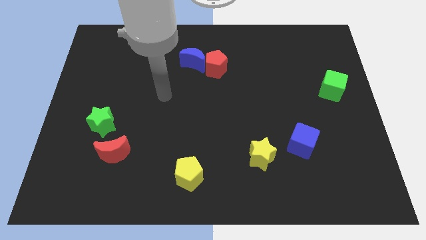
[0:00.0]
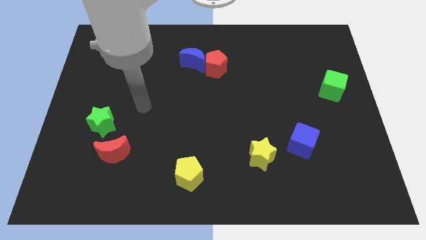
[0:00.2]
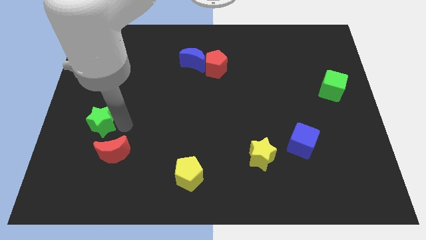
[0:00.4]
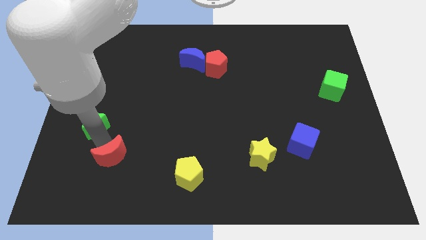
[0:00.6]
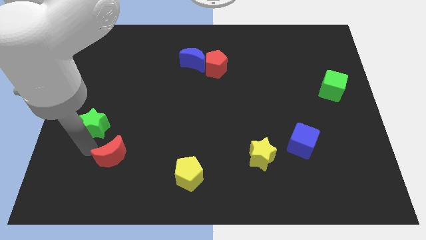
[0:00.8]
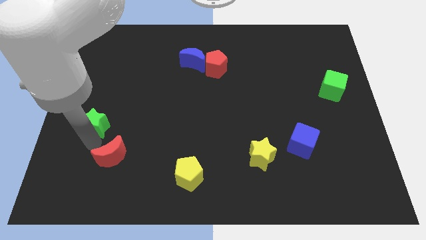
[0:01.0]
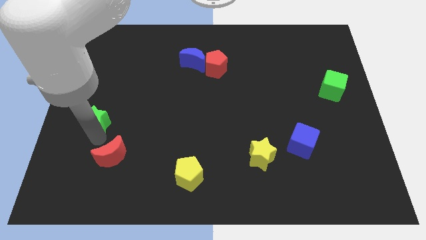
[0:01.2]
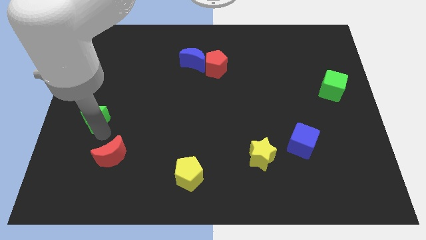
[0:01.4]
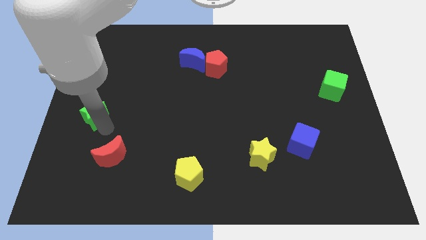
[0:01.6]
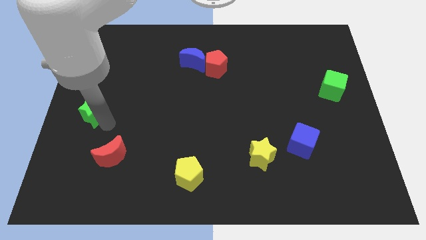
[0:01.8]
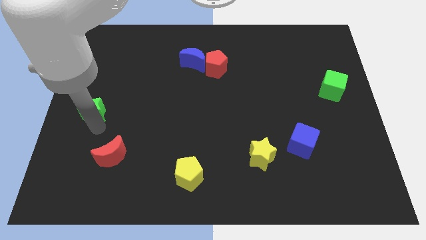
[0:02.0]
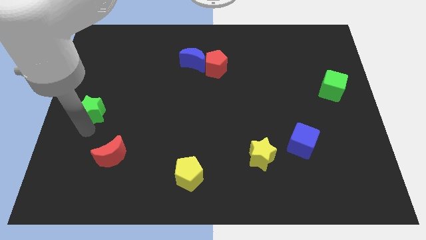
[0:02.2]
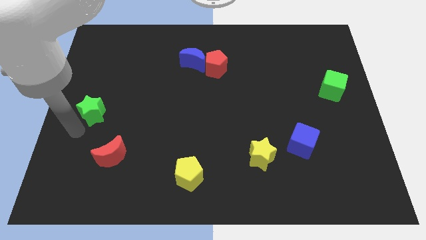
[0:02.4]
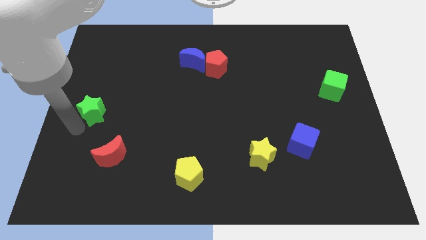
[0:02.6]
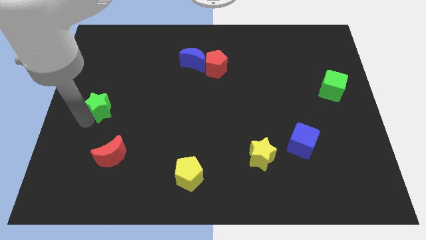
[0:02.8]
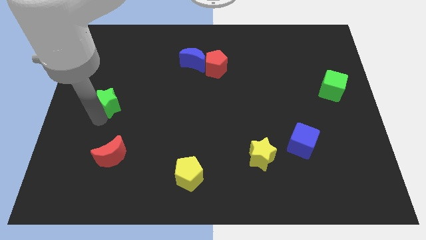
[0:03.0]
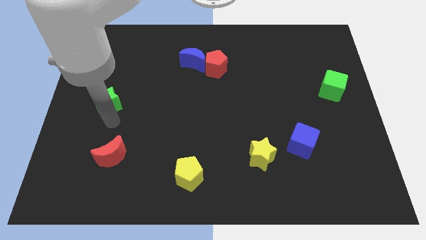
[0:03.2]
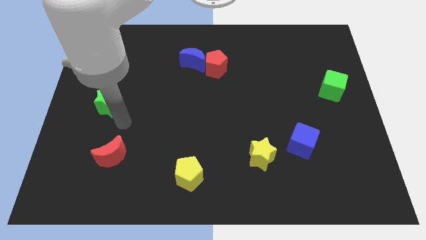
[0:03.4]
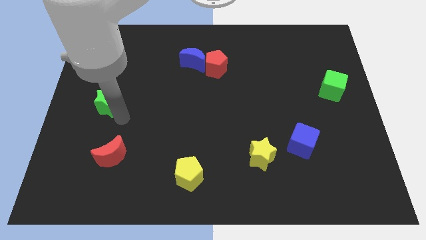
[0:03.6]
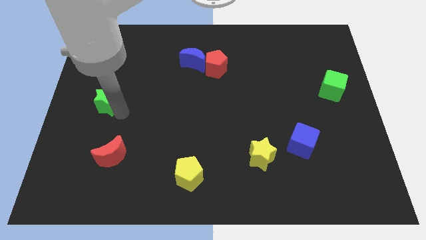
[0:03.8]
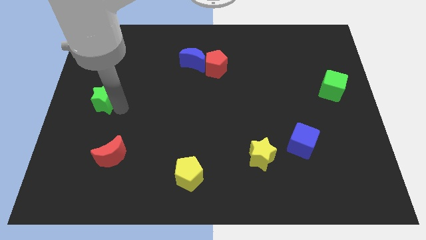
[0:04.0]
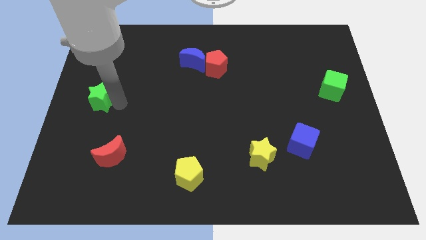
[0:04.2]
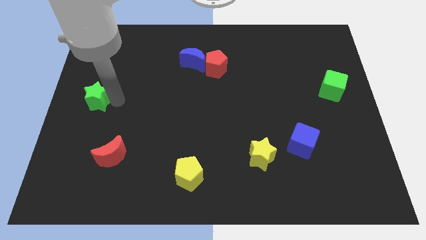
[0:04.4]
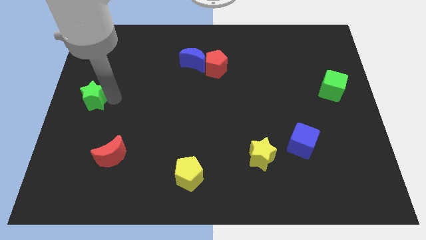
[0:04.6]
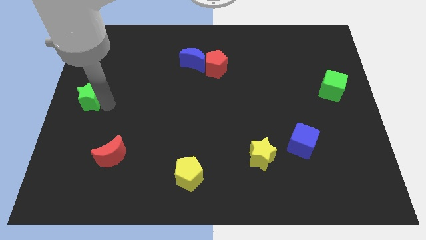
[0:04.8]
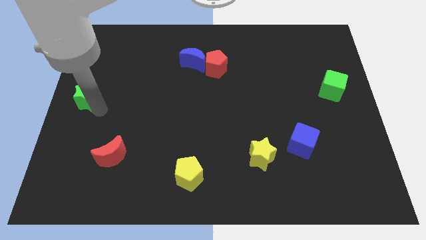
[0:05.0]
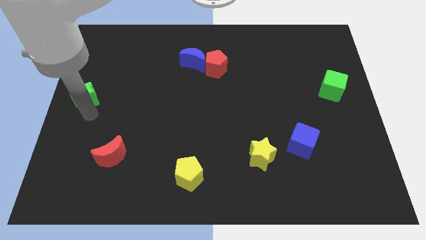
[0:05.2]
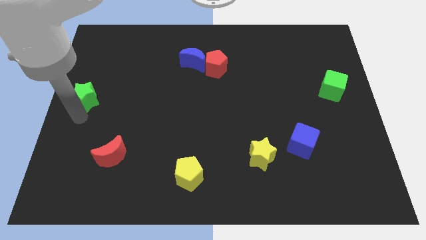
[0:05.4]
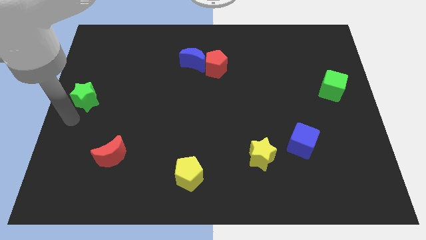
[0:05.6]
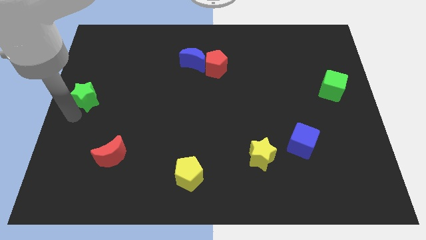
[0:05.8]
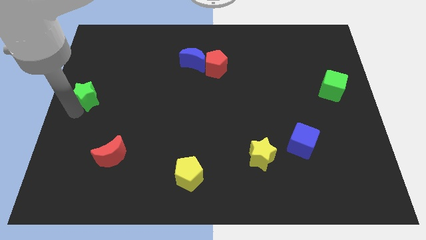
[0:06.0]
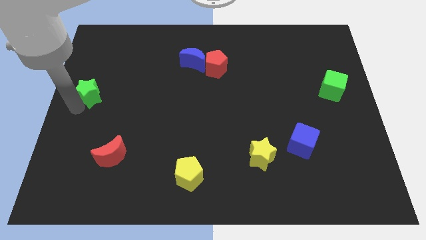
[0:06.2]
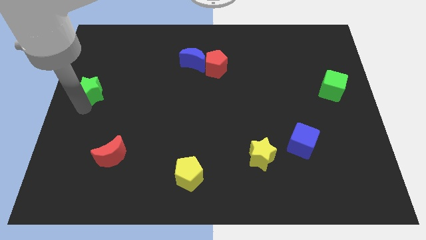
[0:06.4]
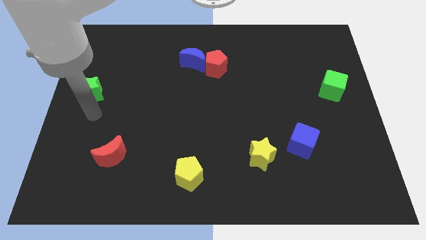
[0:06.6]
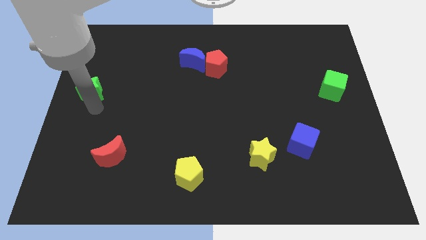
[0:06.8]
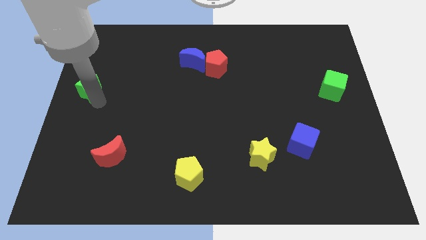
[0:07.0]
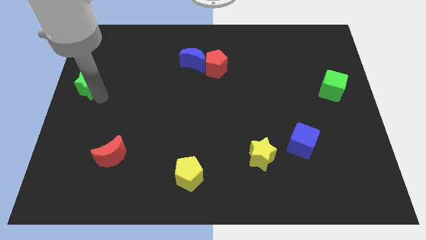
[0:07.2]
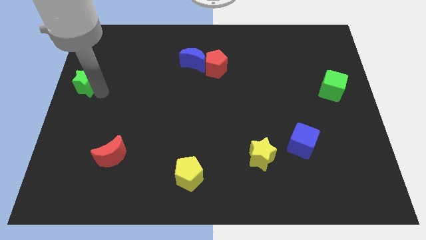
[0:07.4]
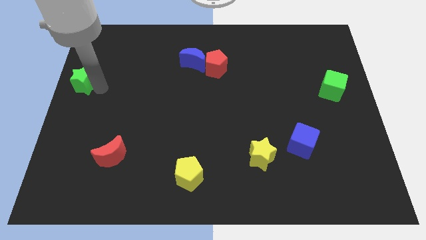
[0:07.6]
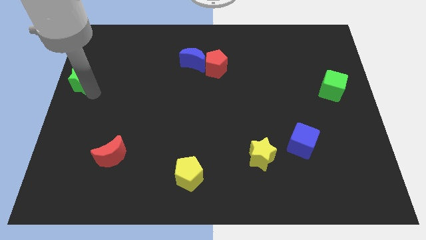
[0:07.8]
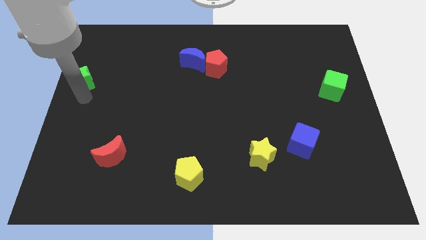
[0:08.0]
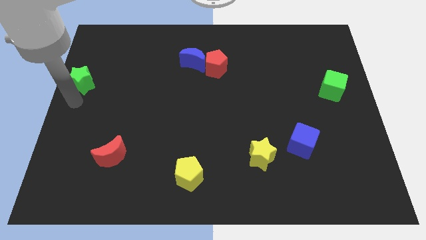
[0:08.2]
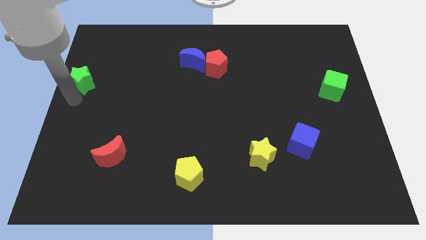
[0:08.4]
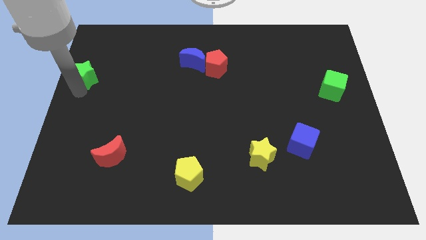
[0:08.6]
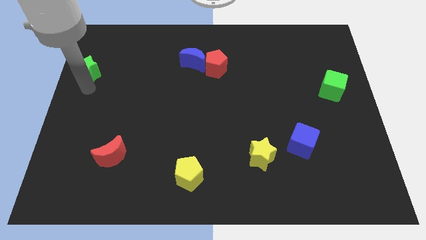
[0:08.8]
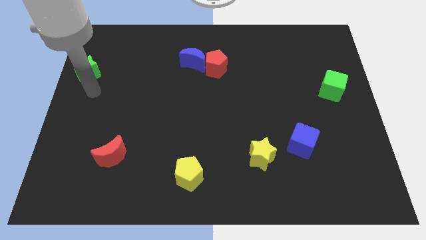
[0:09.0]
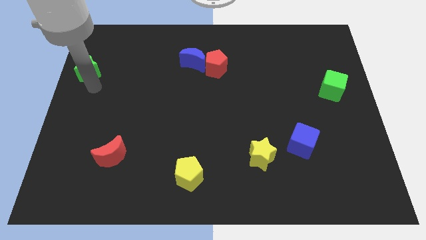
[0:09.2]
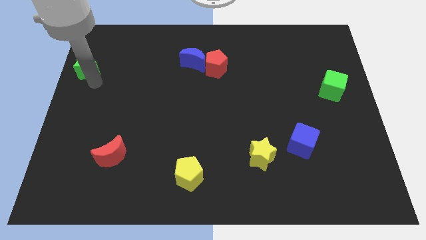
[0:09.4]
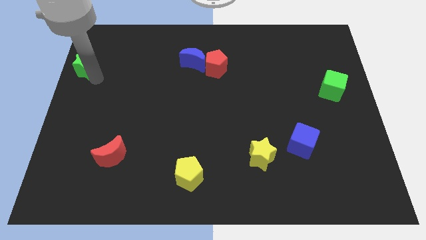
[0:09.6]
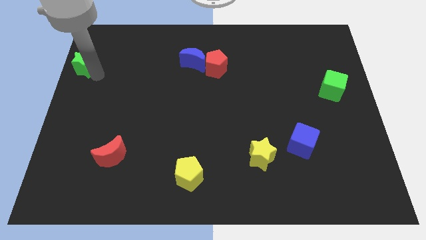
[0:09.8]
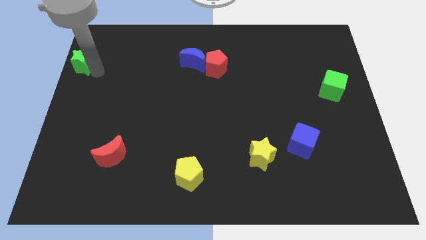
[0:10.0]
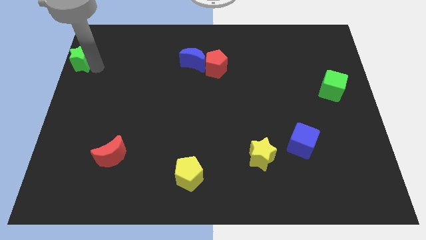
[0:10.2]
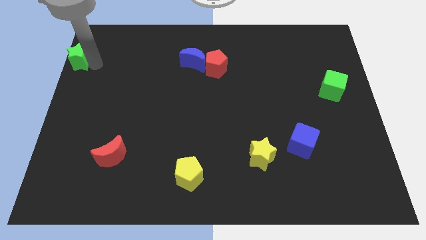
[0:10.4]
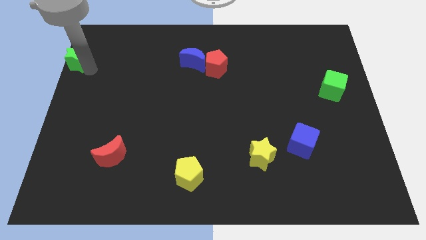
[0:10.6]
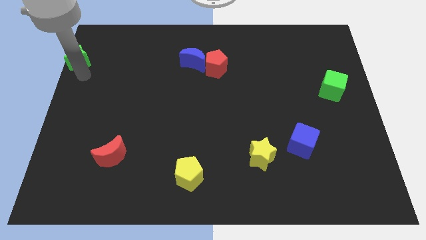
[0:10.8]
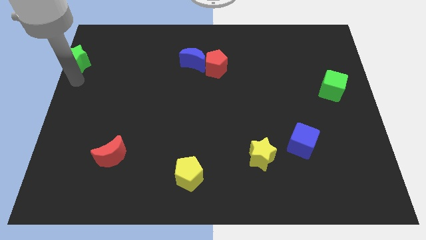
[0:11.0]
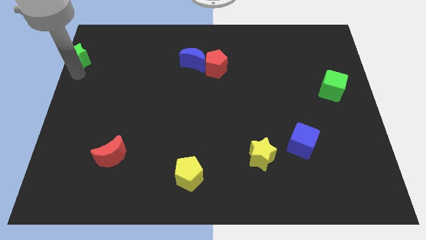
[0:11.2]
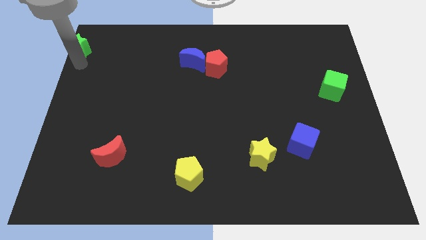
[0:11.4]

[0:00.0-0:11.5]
move the green star to the top left corner

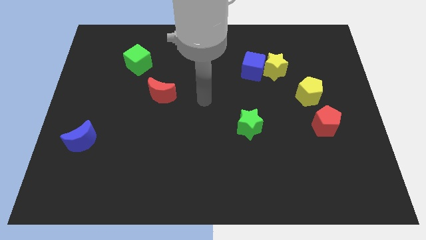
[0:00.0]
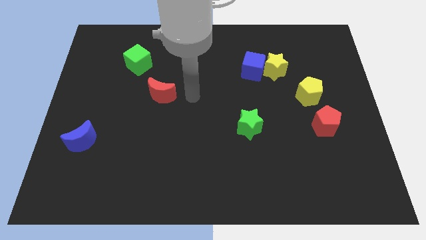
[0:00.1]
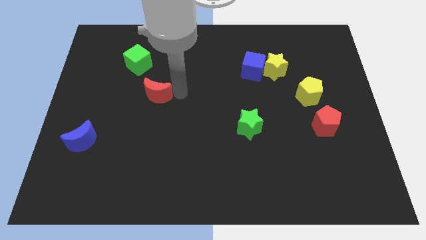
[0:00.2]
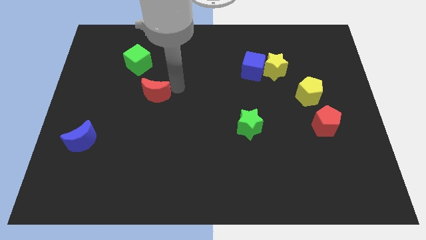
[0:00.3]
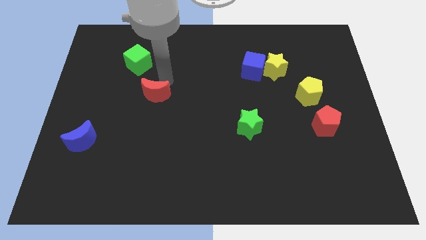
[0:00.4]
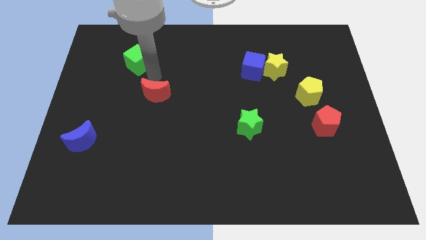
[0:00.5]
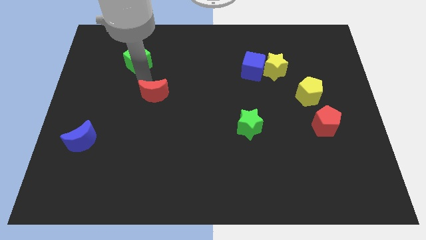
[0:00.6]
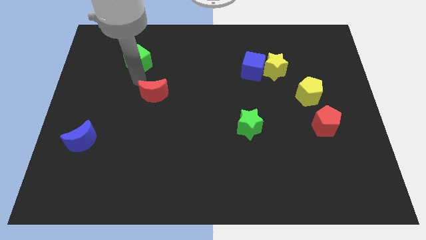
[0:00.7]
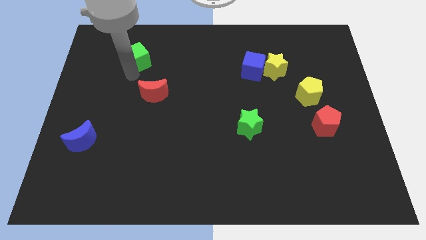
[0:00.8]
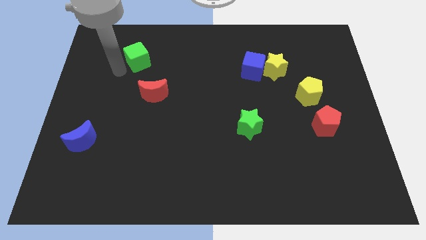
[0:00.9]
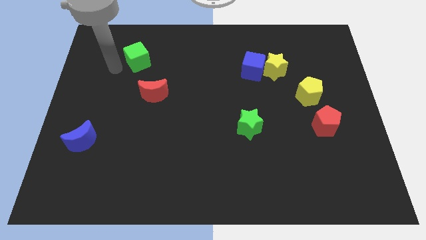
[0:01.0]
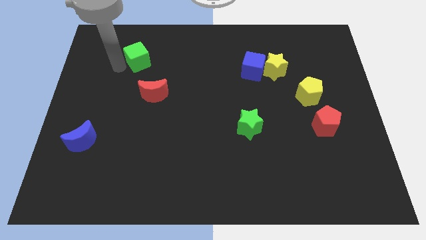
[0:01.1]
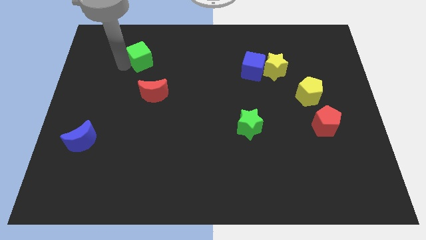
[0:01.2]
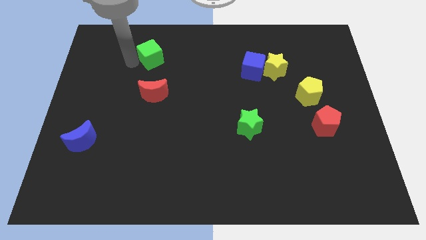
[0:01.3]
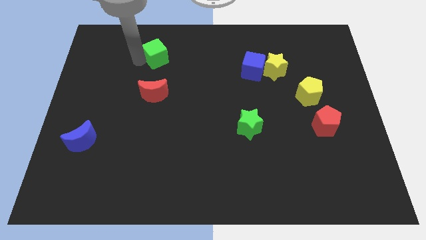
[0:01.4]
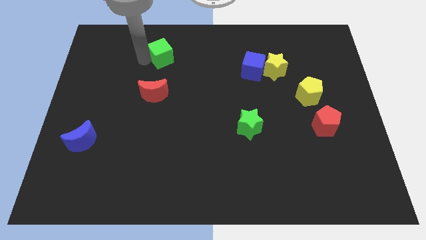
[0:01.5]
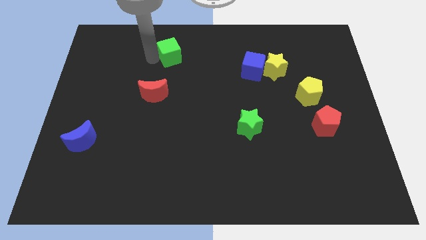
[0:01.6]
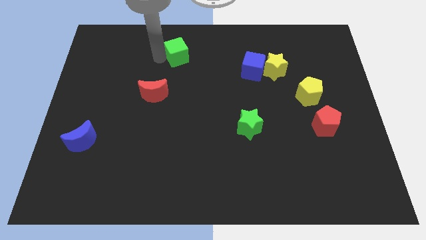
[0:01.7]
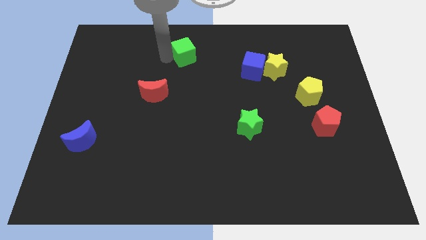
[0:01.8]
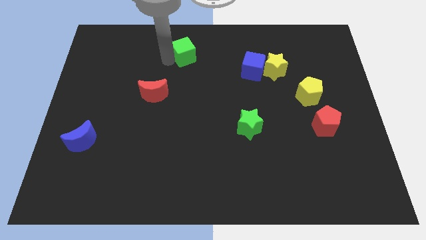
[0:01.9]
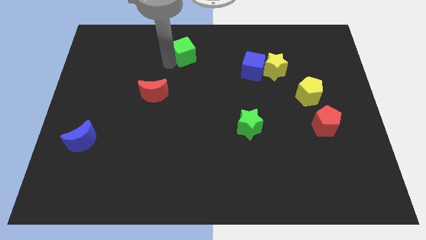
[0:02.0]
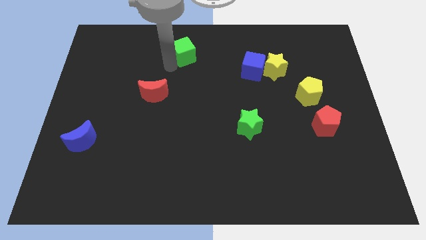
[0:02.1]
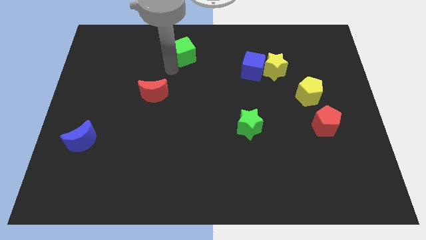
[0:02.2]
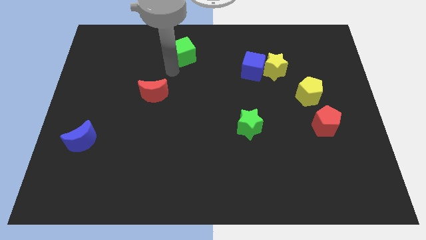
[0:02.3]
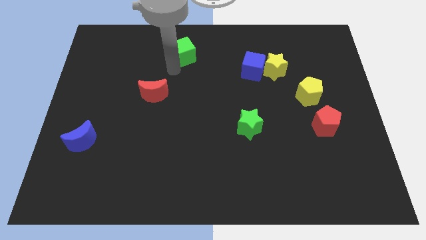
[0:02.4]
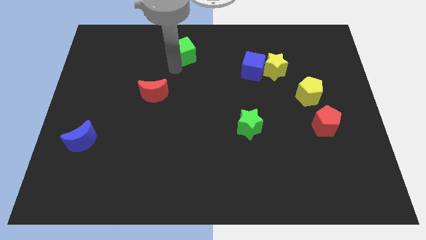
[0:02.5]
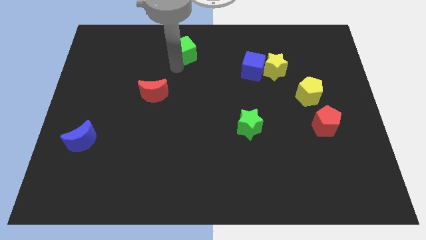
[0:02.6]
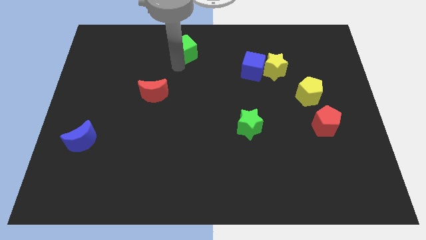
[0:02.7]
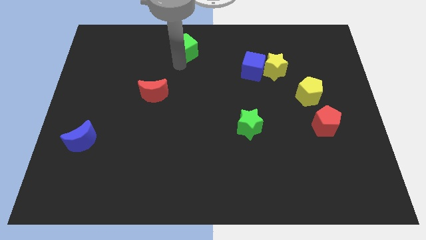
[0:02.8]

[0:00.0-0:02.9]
put the green cube to the towards your base
